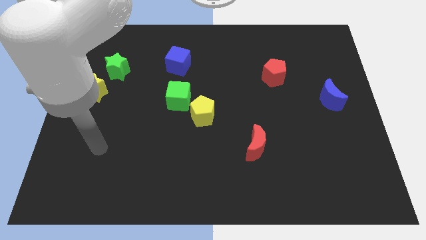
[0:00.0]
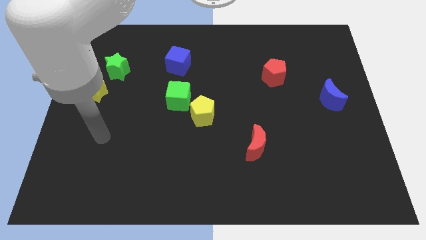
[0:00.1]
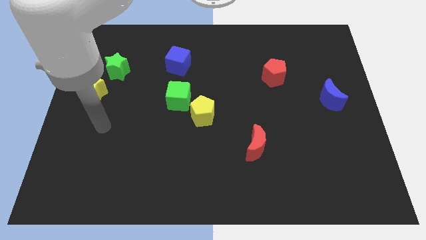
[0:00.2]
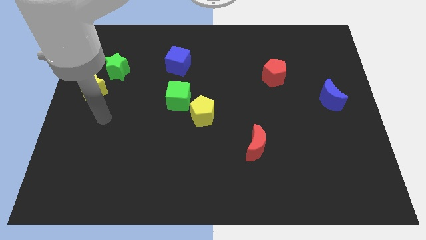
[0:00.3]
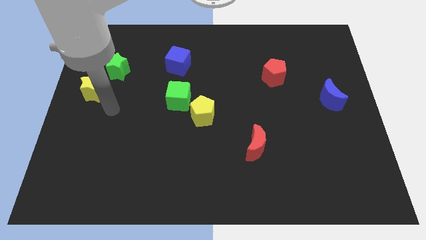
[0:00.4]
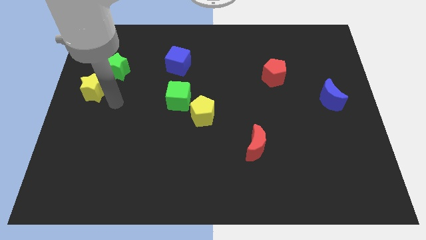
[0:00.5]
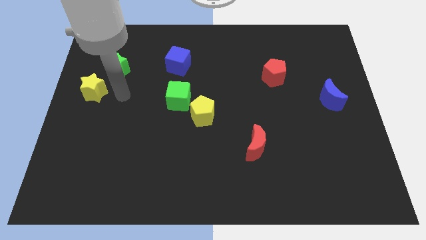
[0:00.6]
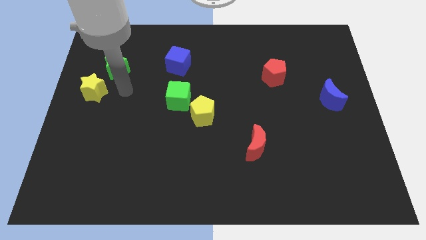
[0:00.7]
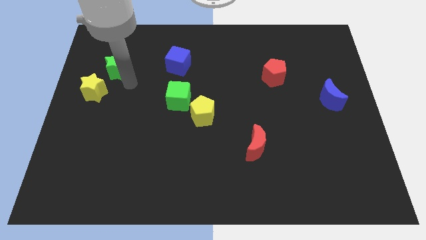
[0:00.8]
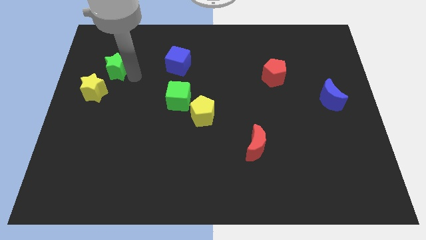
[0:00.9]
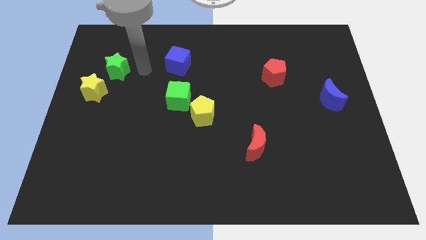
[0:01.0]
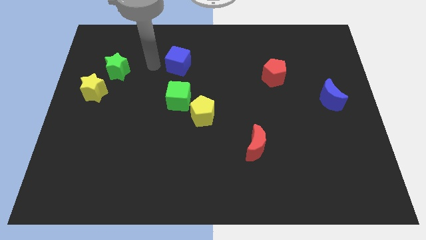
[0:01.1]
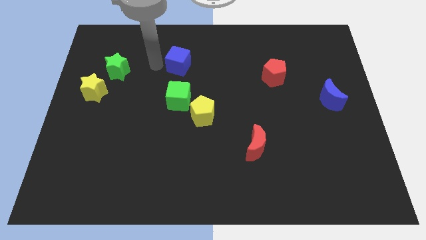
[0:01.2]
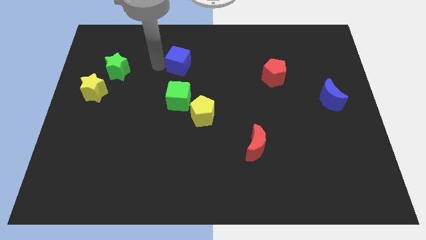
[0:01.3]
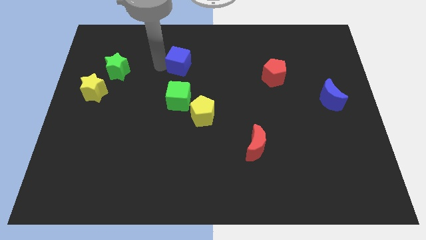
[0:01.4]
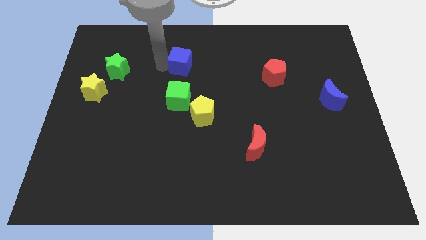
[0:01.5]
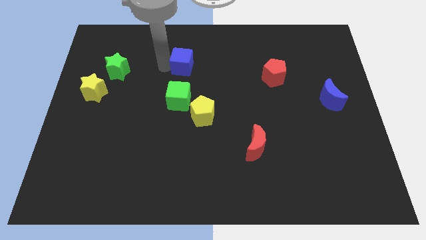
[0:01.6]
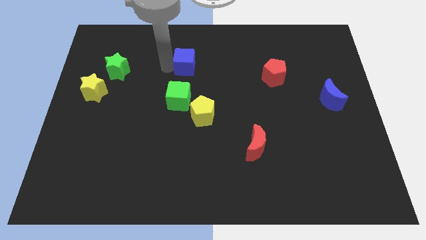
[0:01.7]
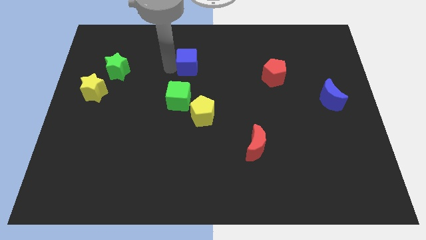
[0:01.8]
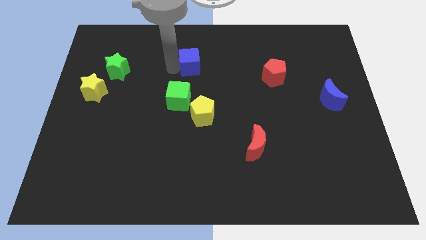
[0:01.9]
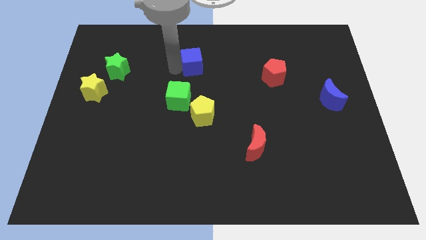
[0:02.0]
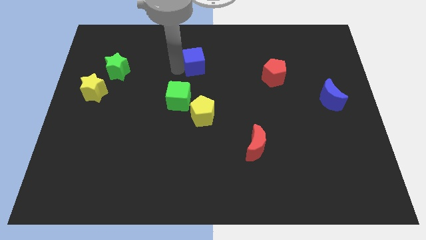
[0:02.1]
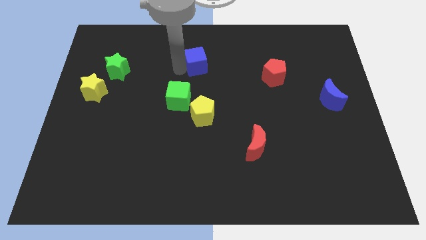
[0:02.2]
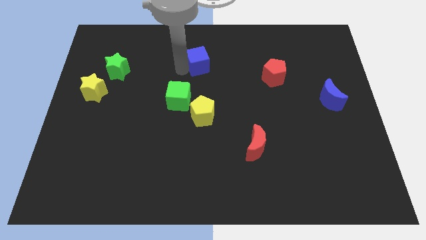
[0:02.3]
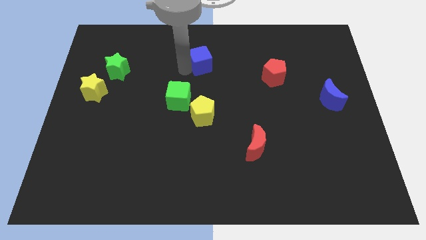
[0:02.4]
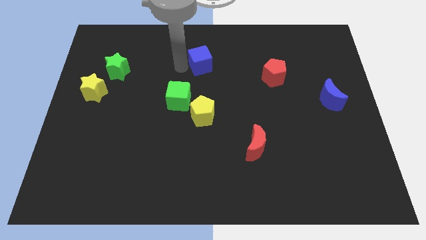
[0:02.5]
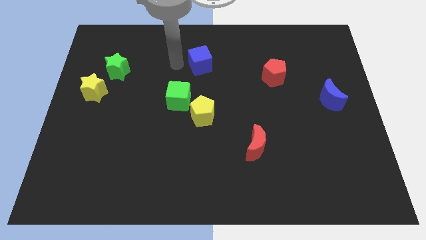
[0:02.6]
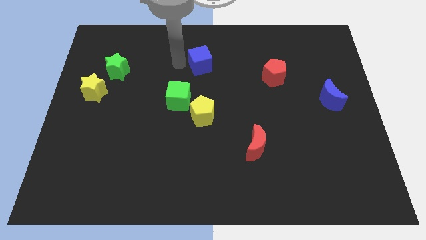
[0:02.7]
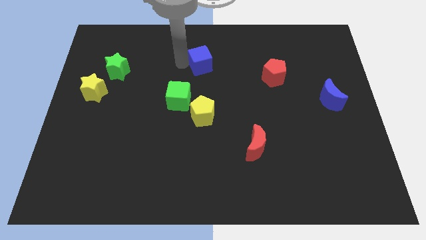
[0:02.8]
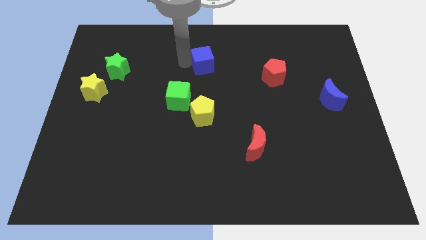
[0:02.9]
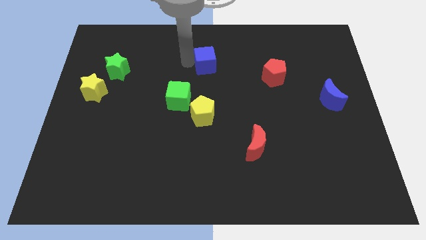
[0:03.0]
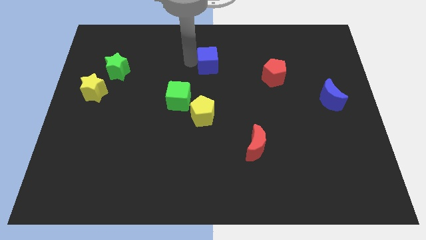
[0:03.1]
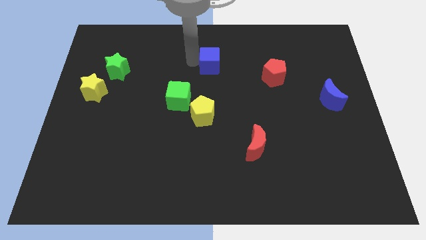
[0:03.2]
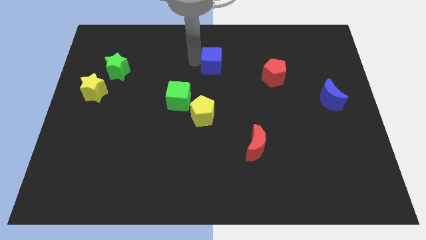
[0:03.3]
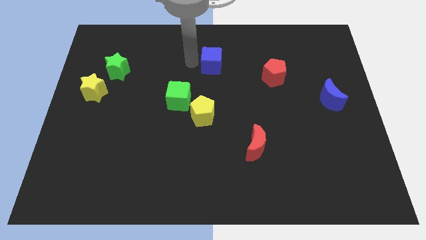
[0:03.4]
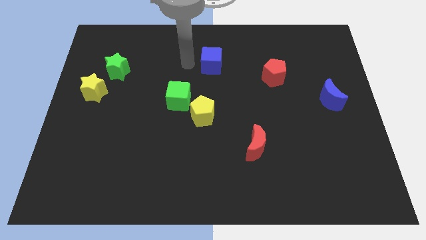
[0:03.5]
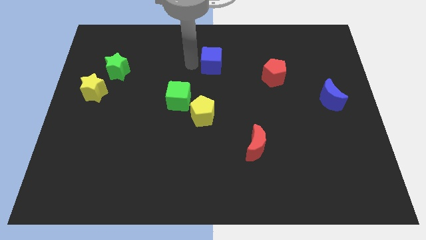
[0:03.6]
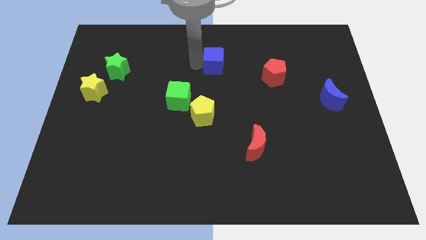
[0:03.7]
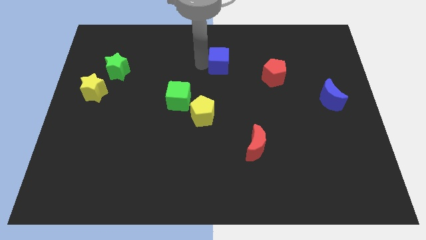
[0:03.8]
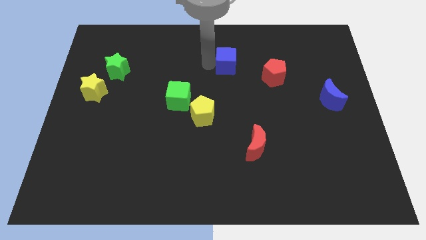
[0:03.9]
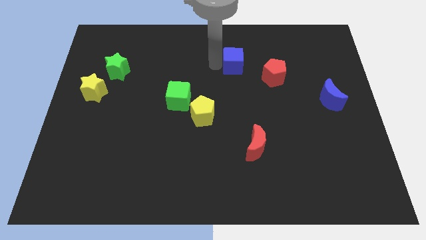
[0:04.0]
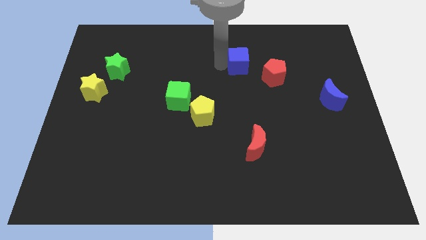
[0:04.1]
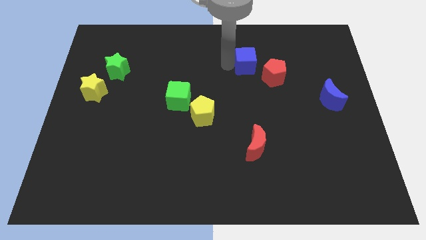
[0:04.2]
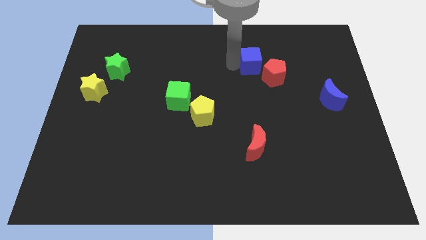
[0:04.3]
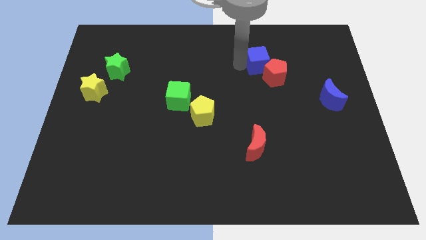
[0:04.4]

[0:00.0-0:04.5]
push the blue cube right

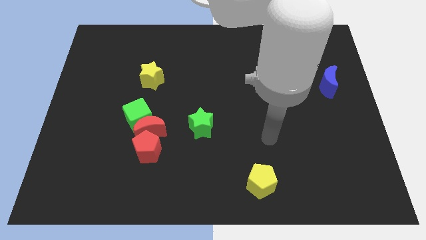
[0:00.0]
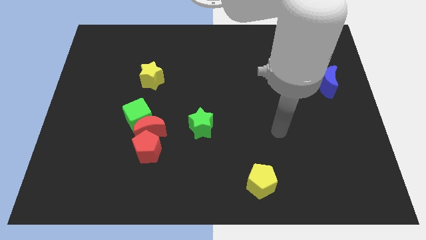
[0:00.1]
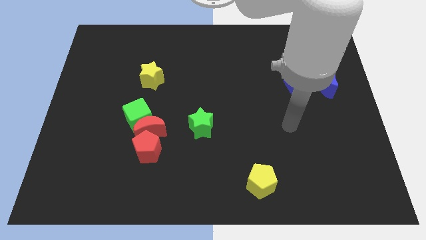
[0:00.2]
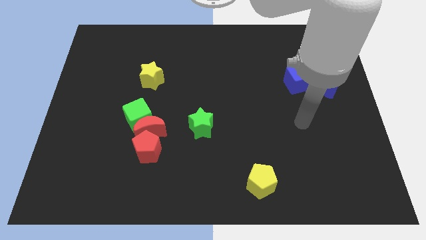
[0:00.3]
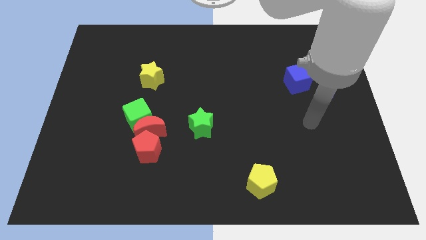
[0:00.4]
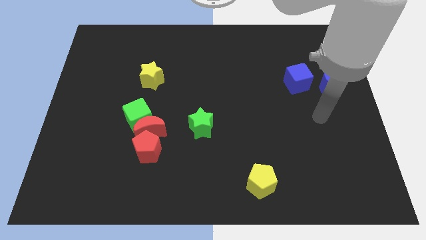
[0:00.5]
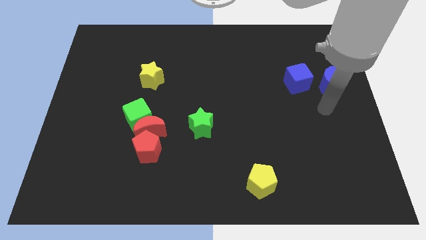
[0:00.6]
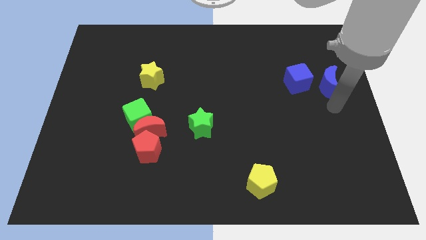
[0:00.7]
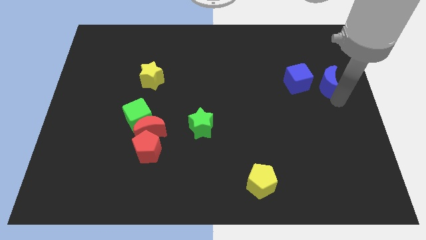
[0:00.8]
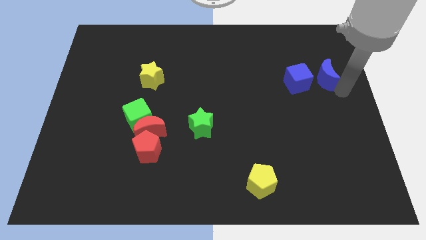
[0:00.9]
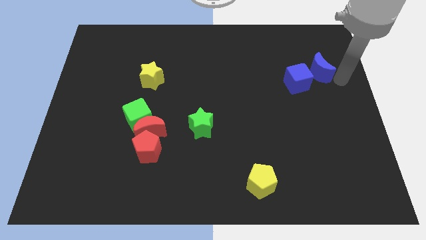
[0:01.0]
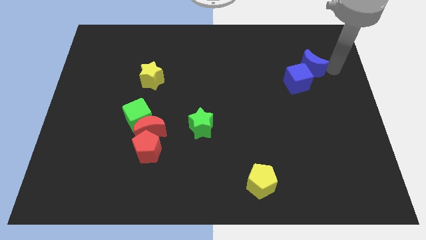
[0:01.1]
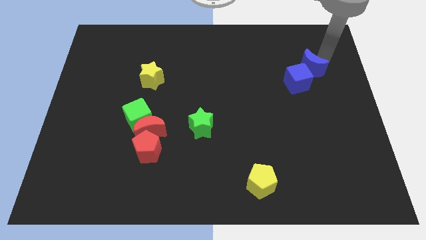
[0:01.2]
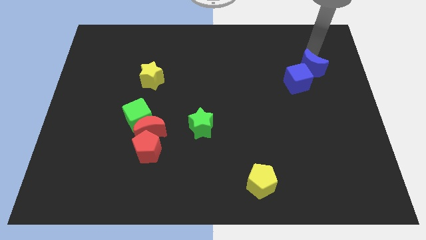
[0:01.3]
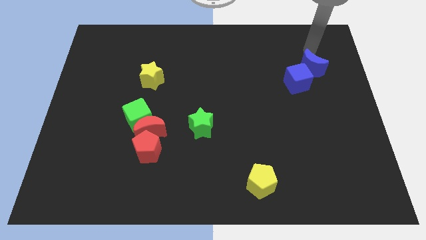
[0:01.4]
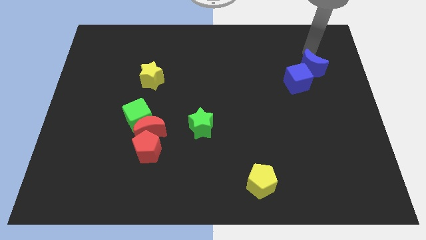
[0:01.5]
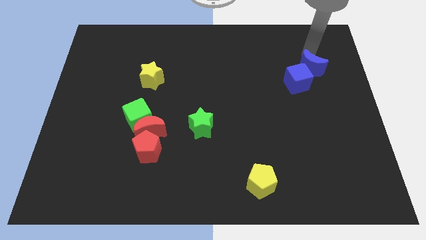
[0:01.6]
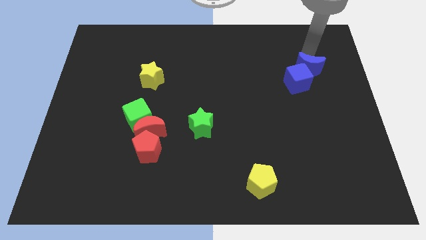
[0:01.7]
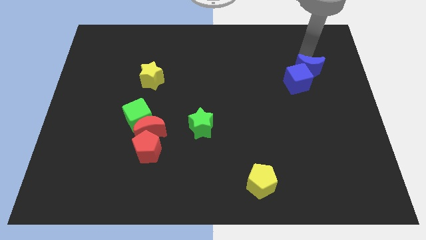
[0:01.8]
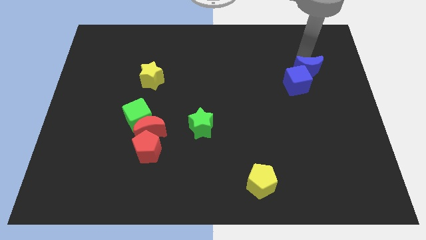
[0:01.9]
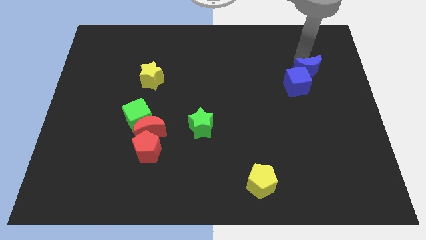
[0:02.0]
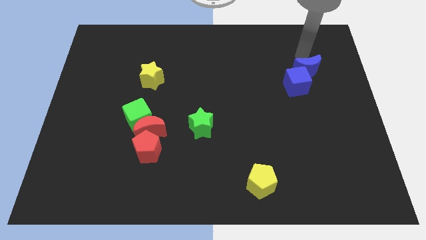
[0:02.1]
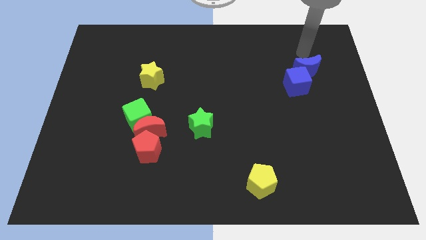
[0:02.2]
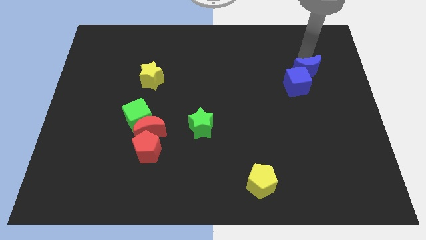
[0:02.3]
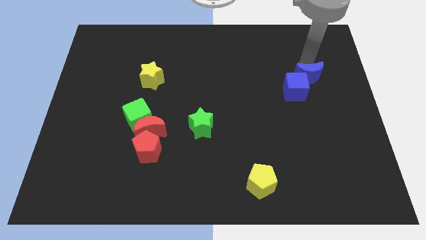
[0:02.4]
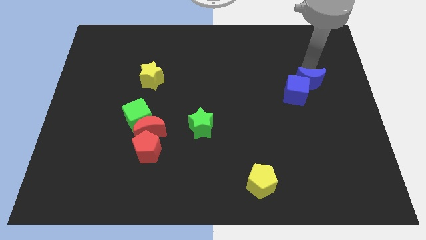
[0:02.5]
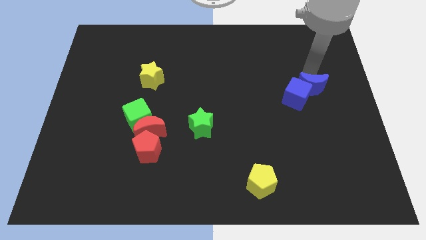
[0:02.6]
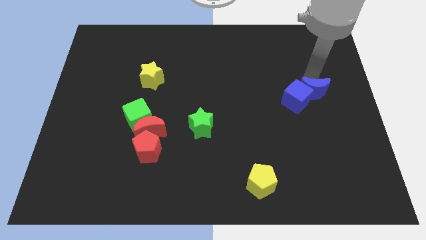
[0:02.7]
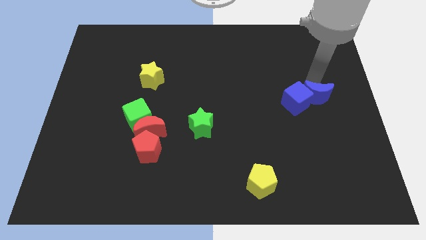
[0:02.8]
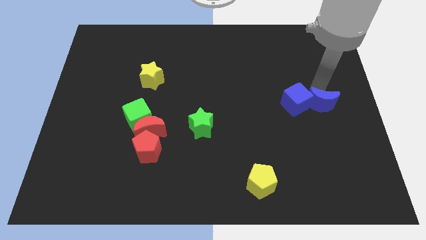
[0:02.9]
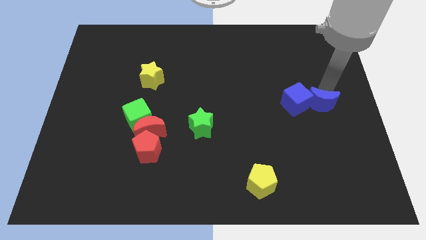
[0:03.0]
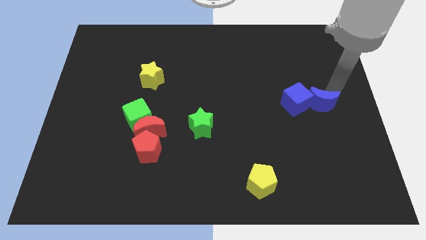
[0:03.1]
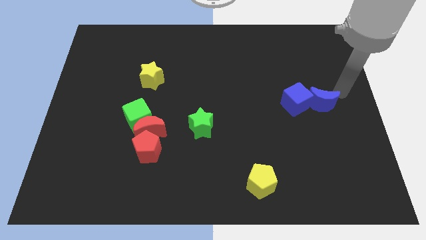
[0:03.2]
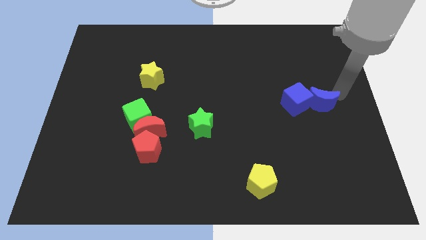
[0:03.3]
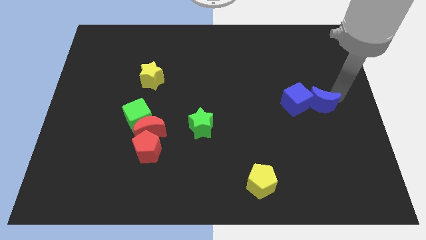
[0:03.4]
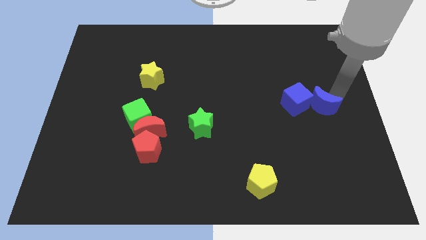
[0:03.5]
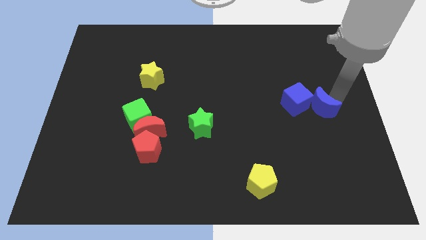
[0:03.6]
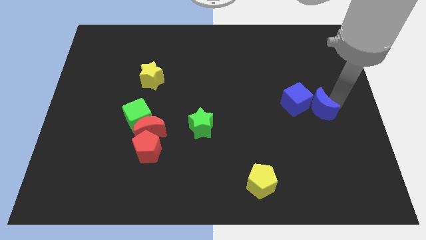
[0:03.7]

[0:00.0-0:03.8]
slightly push the blue moon diagonally down and to the left
